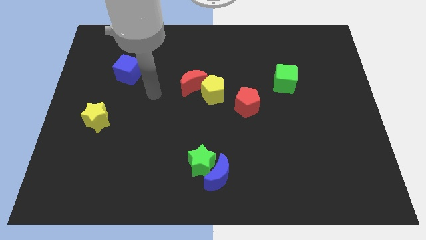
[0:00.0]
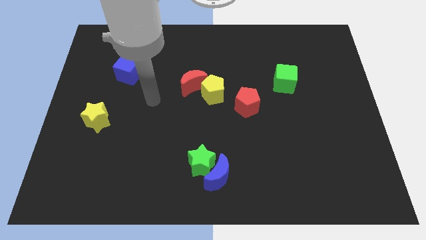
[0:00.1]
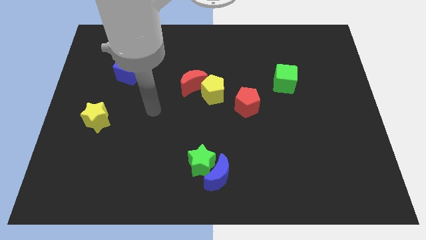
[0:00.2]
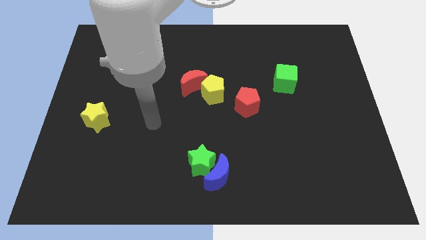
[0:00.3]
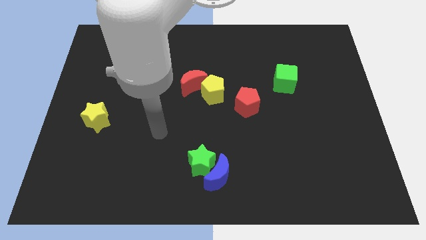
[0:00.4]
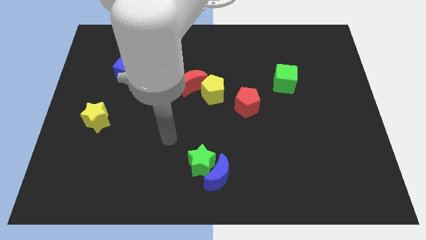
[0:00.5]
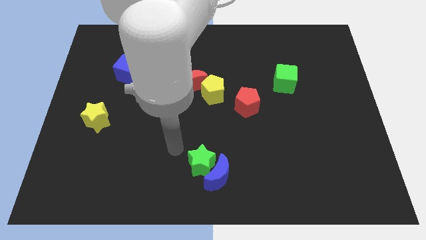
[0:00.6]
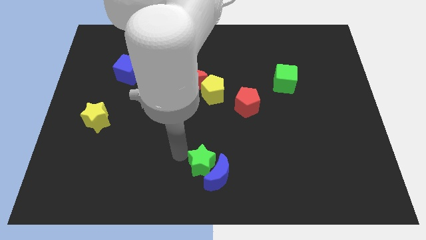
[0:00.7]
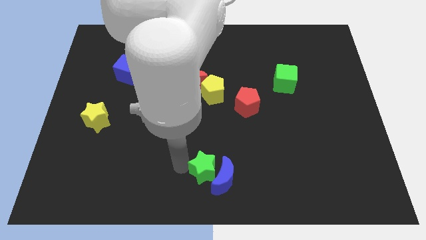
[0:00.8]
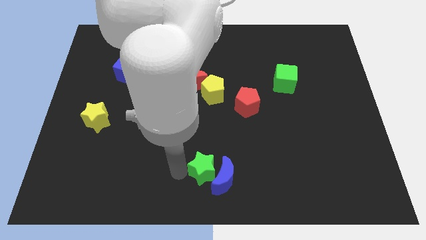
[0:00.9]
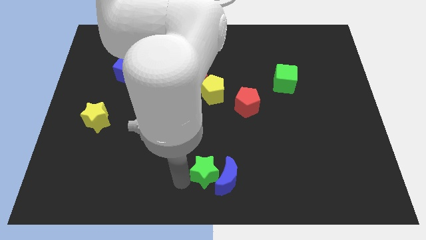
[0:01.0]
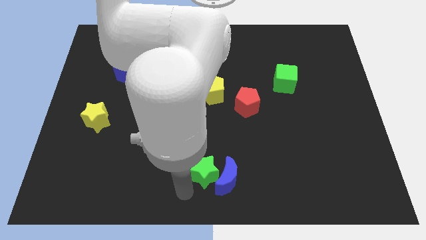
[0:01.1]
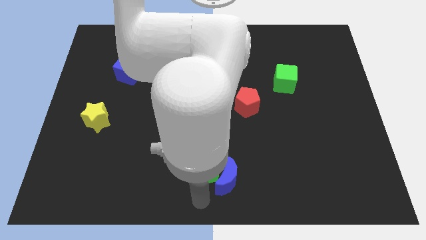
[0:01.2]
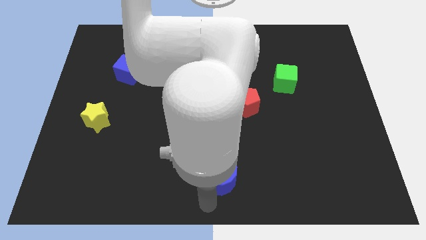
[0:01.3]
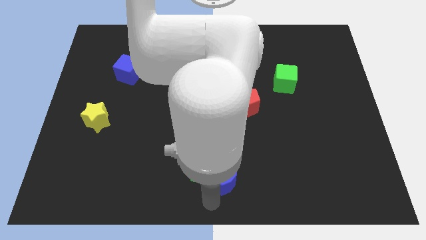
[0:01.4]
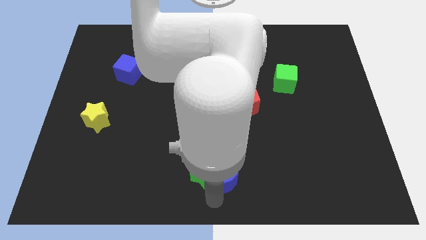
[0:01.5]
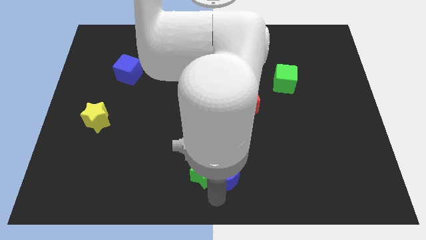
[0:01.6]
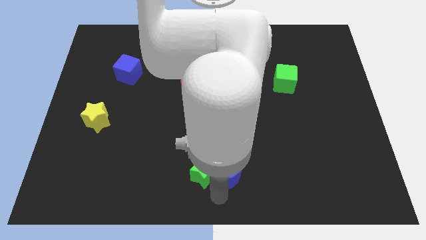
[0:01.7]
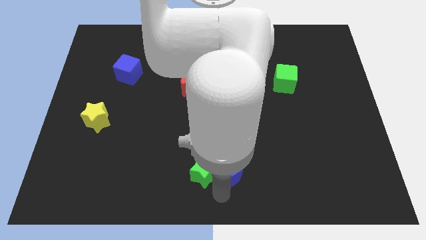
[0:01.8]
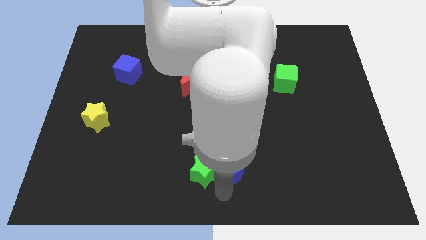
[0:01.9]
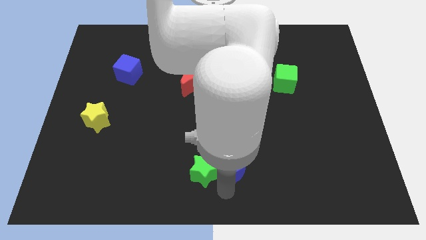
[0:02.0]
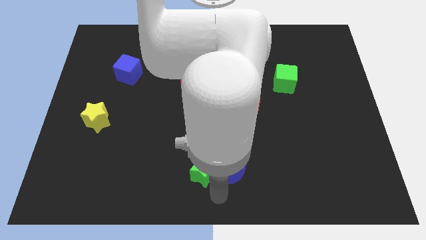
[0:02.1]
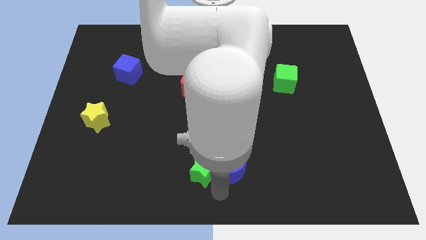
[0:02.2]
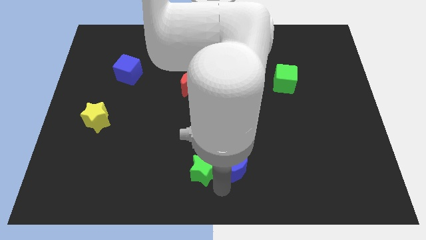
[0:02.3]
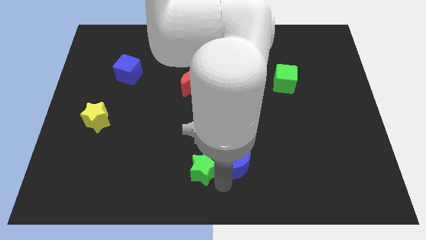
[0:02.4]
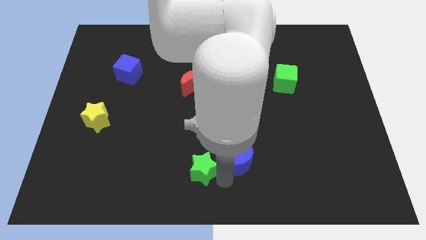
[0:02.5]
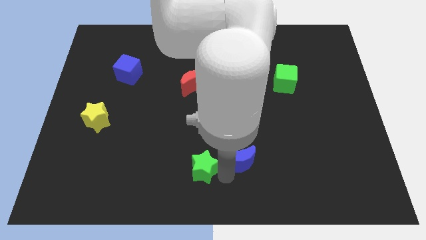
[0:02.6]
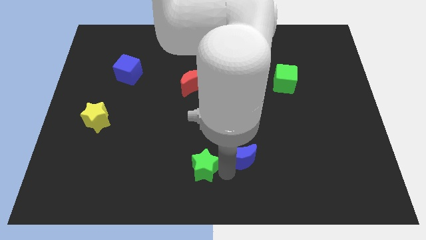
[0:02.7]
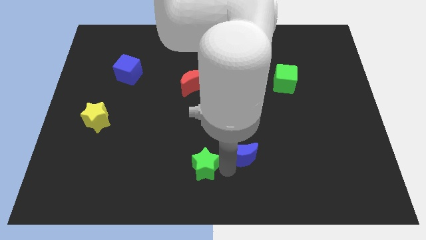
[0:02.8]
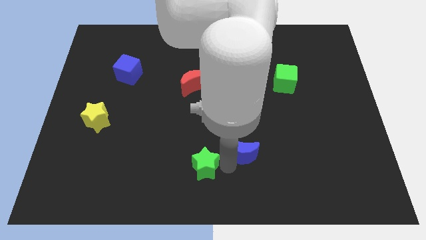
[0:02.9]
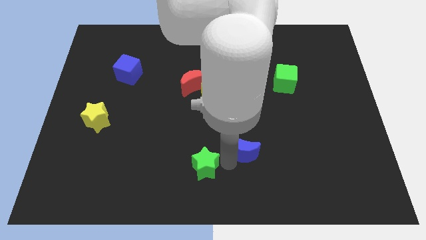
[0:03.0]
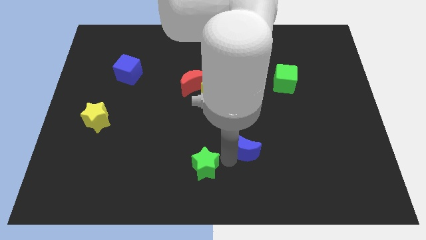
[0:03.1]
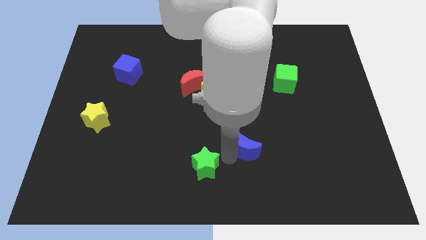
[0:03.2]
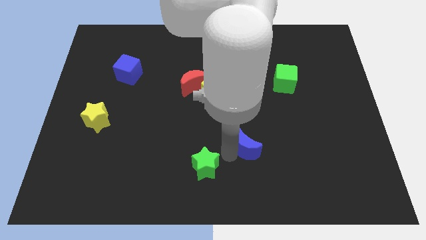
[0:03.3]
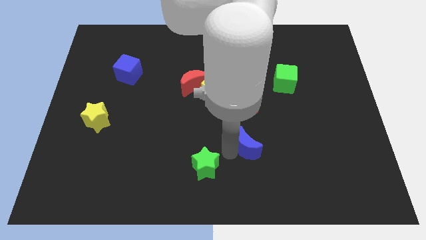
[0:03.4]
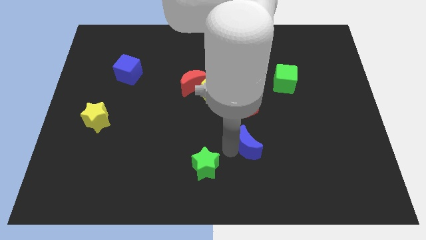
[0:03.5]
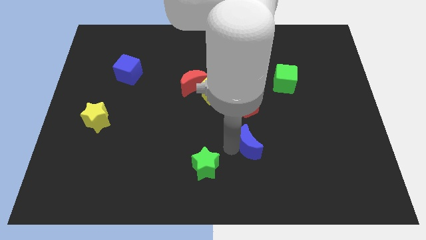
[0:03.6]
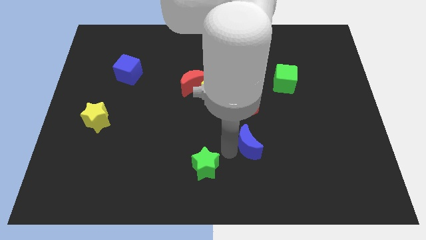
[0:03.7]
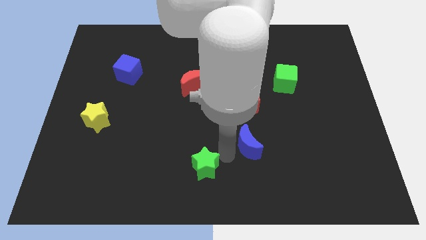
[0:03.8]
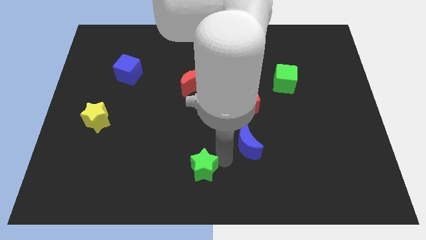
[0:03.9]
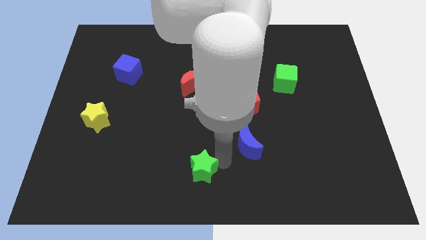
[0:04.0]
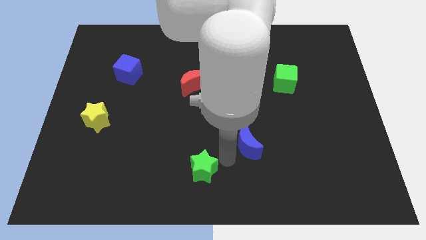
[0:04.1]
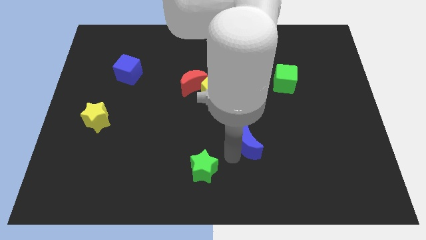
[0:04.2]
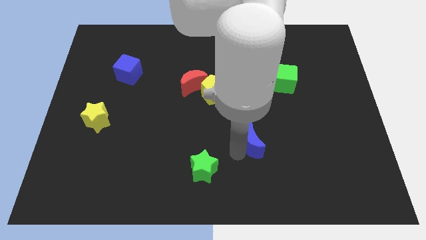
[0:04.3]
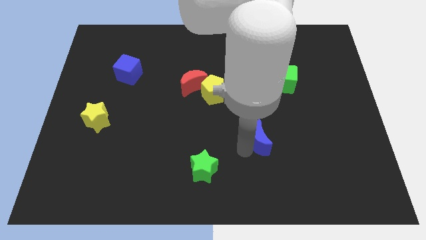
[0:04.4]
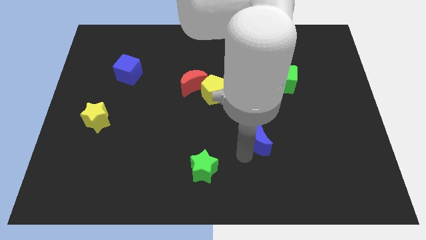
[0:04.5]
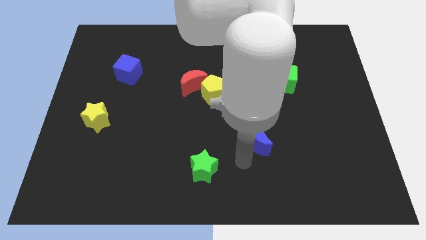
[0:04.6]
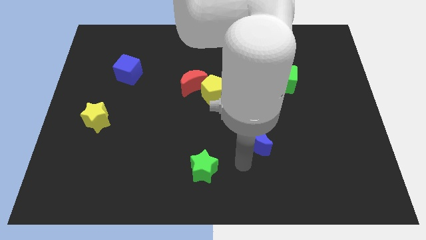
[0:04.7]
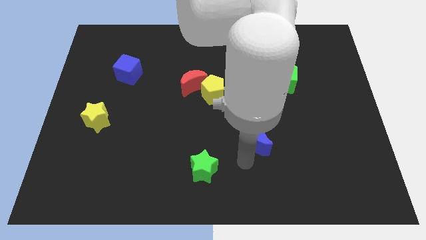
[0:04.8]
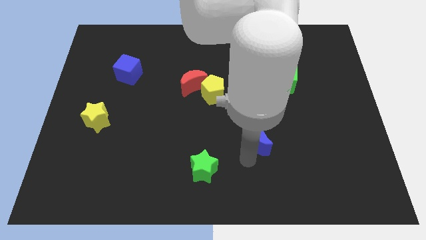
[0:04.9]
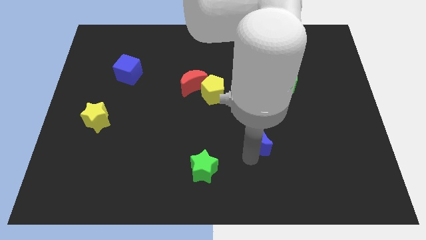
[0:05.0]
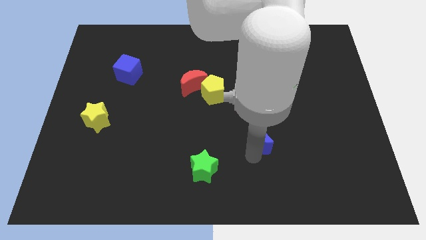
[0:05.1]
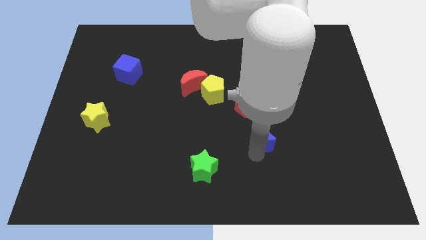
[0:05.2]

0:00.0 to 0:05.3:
move the blue moon to the bottom right side of the red pentagon

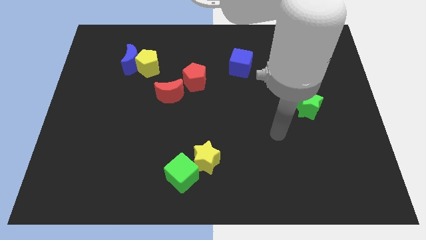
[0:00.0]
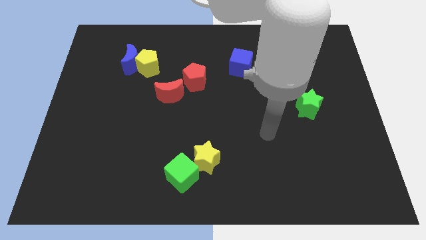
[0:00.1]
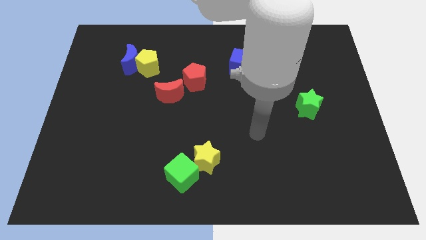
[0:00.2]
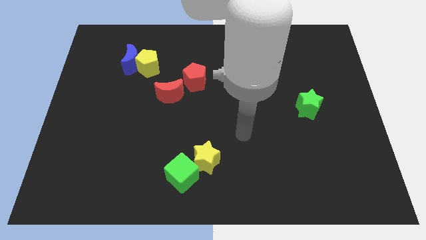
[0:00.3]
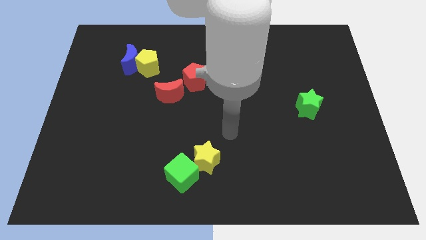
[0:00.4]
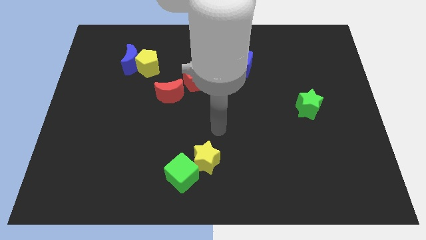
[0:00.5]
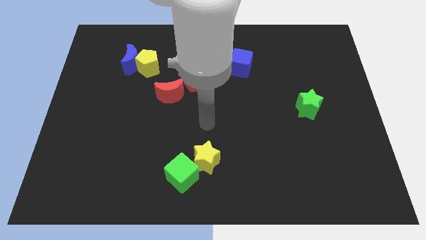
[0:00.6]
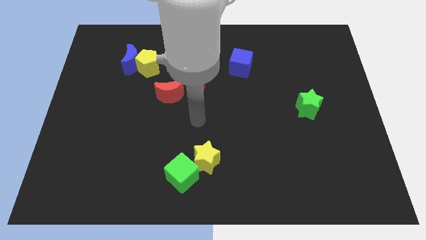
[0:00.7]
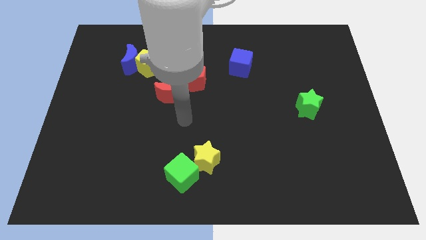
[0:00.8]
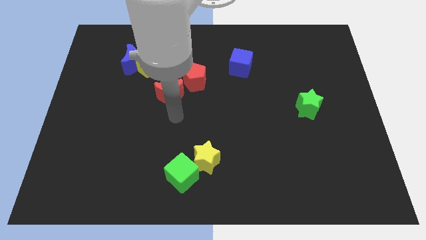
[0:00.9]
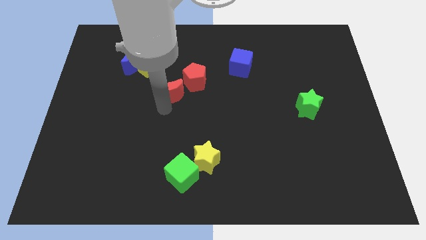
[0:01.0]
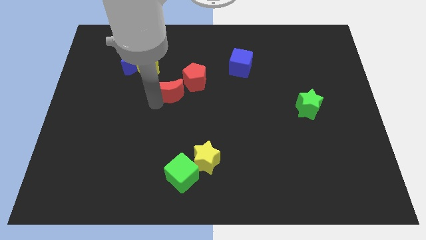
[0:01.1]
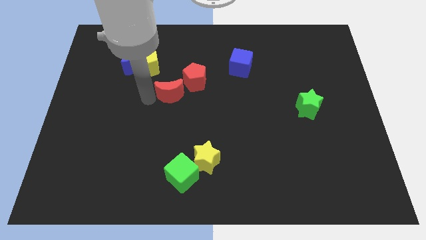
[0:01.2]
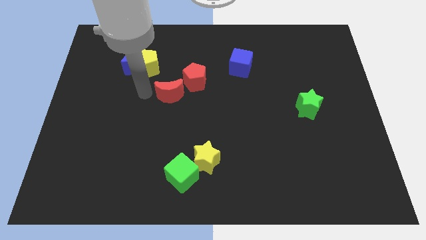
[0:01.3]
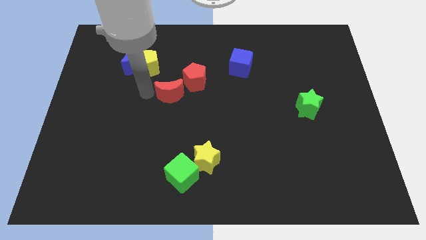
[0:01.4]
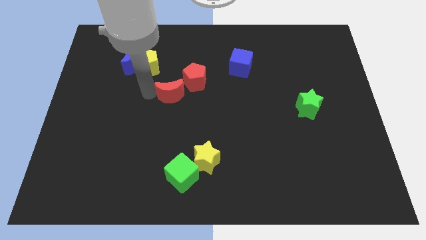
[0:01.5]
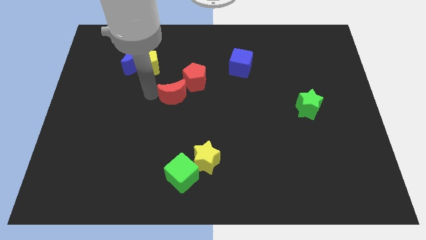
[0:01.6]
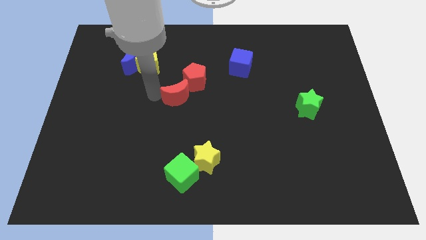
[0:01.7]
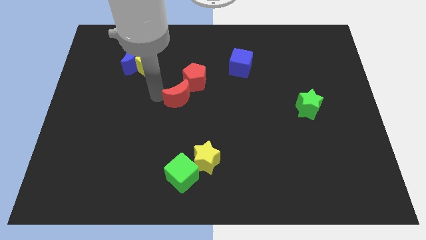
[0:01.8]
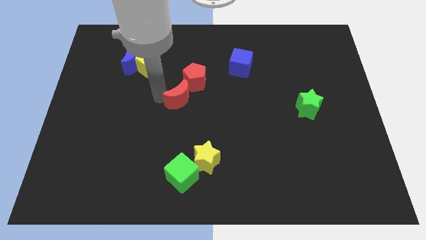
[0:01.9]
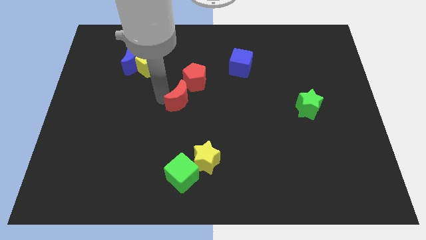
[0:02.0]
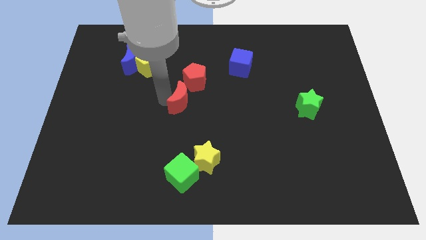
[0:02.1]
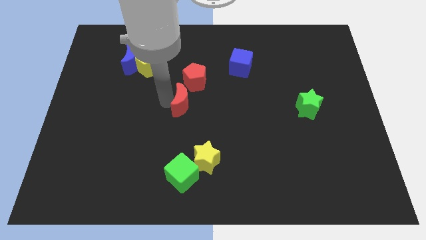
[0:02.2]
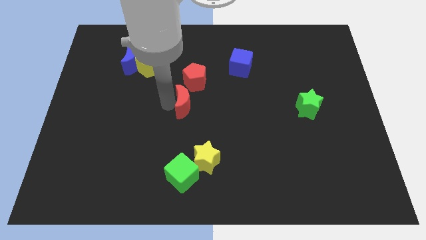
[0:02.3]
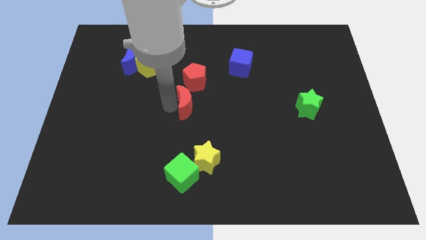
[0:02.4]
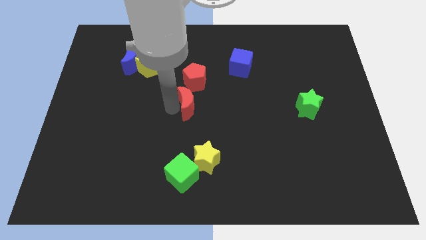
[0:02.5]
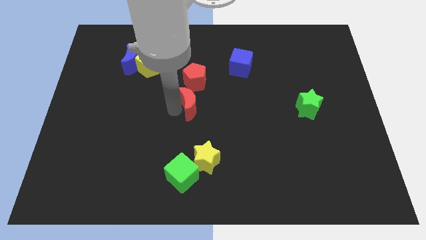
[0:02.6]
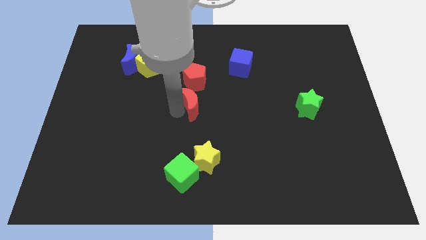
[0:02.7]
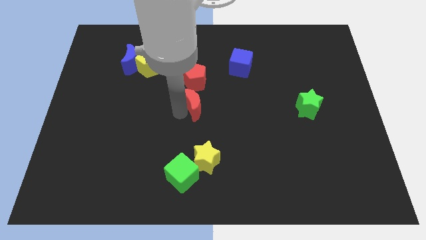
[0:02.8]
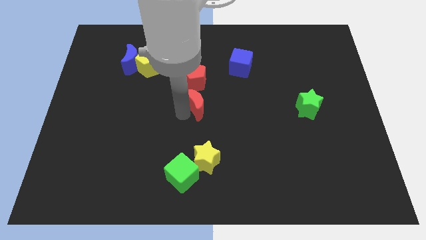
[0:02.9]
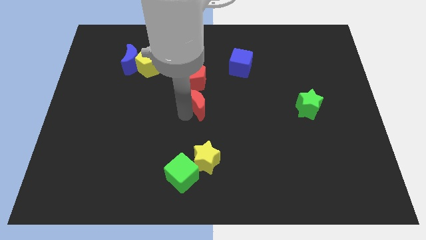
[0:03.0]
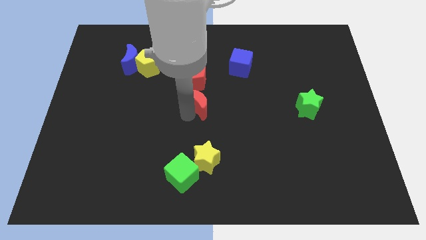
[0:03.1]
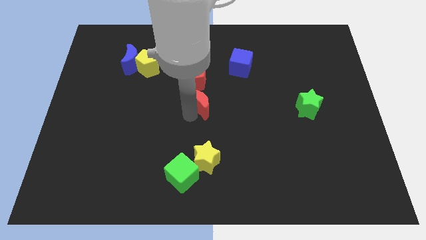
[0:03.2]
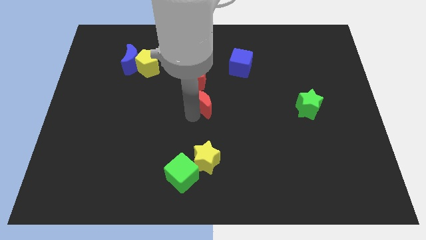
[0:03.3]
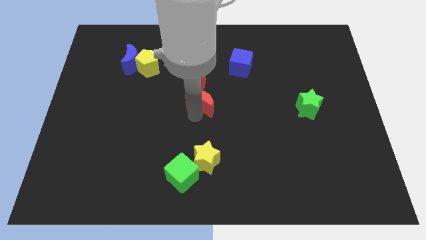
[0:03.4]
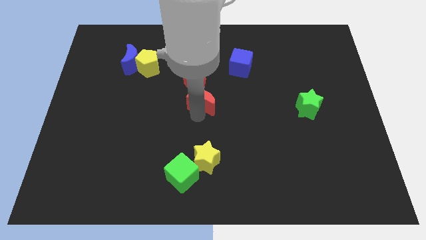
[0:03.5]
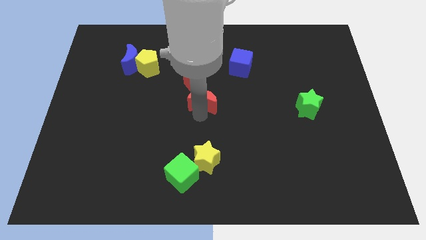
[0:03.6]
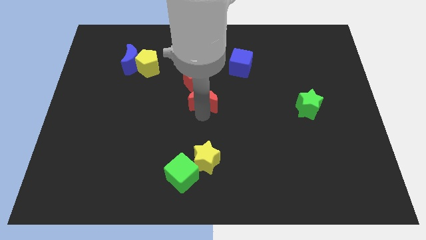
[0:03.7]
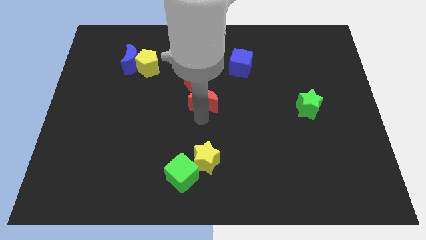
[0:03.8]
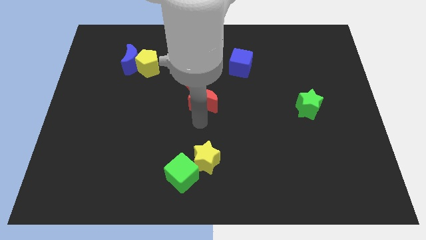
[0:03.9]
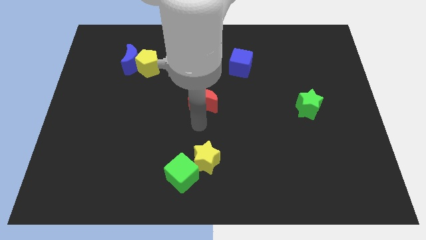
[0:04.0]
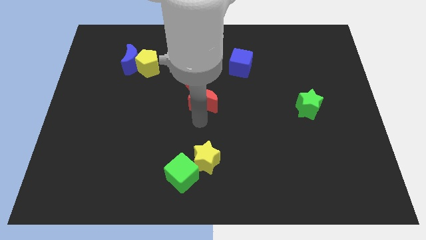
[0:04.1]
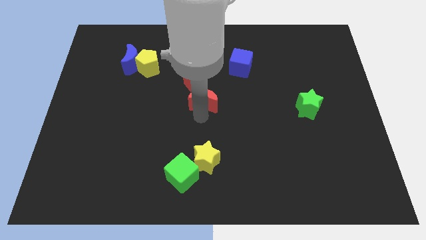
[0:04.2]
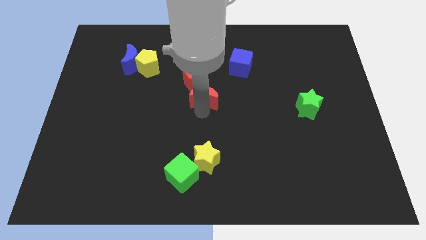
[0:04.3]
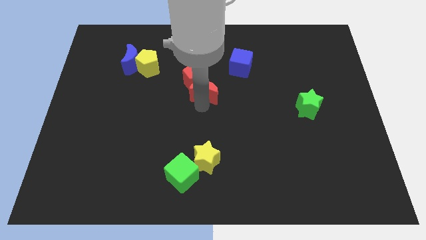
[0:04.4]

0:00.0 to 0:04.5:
put the red moon diagonally down and to the left of the blue cube
